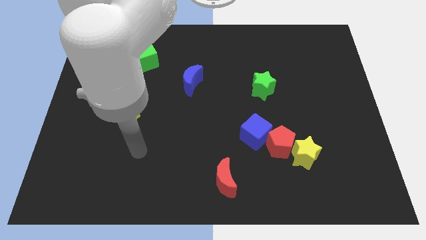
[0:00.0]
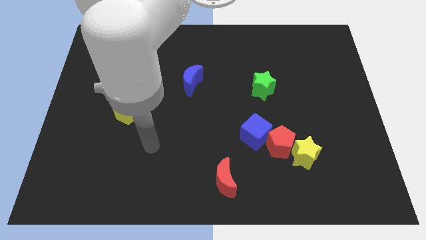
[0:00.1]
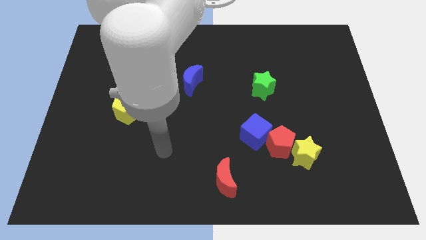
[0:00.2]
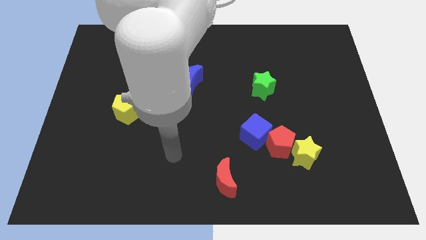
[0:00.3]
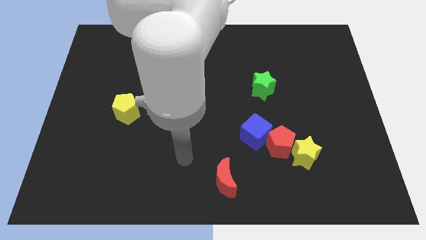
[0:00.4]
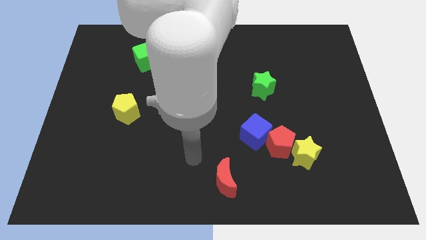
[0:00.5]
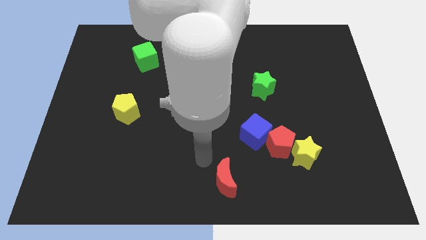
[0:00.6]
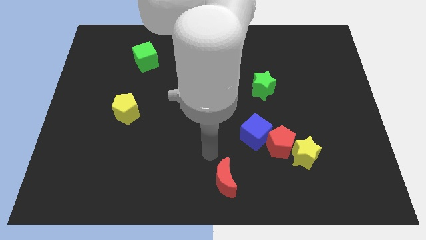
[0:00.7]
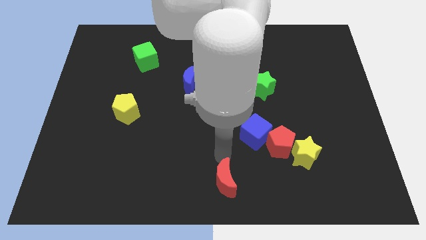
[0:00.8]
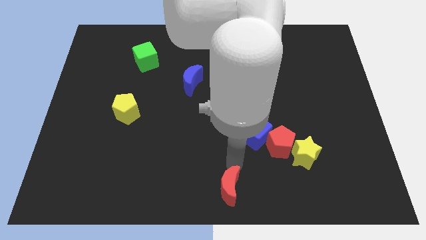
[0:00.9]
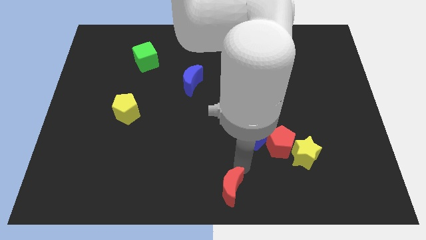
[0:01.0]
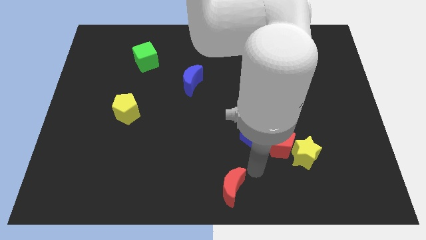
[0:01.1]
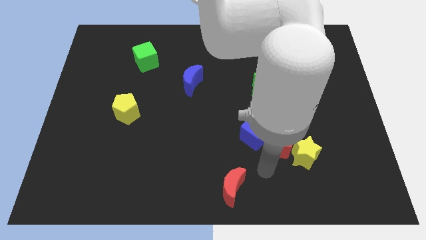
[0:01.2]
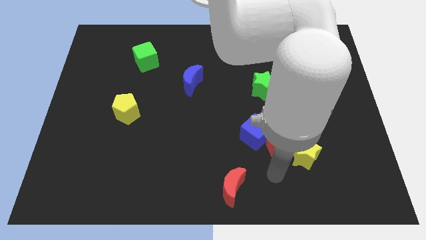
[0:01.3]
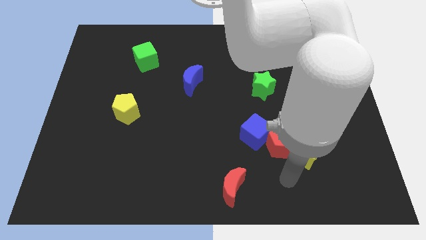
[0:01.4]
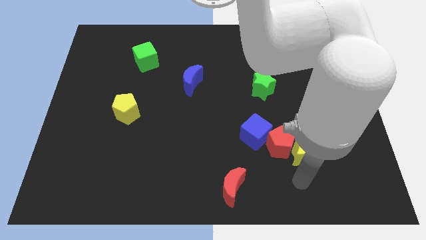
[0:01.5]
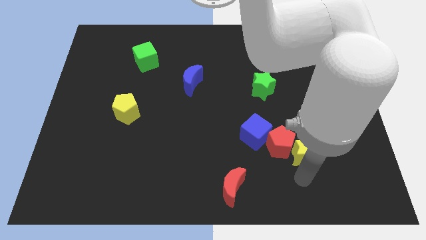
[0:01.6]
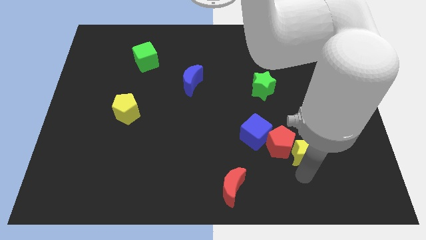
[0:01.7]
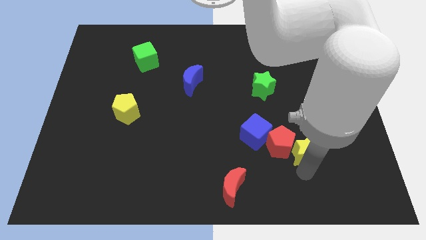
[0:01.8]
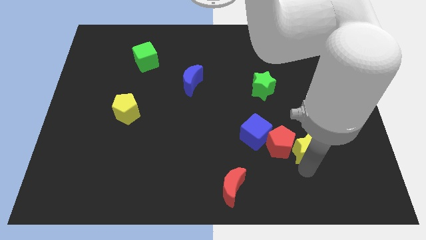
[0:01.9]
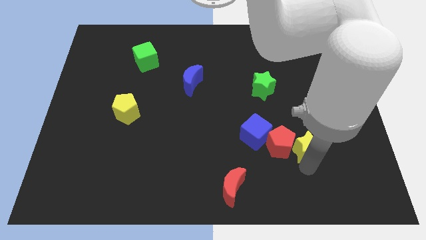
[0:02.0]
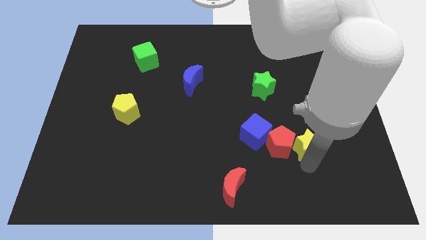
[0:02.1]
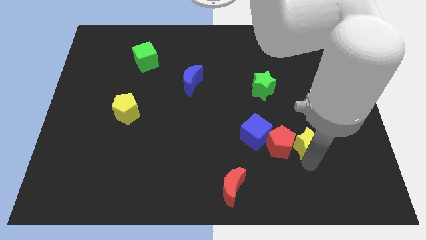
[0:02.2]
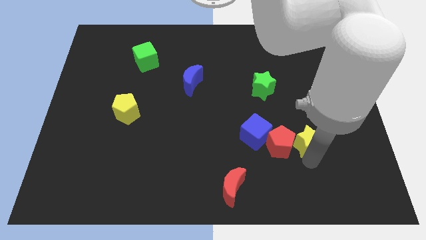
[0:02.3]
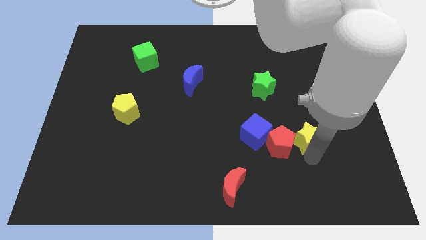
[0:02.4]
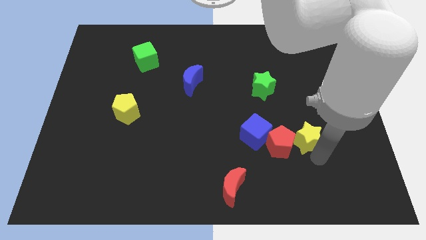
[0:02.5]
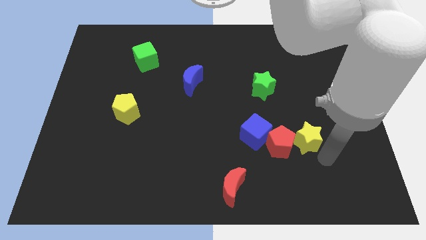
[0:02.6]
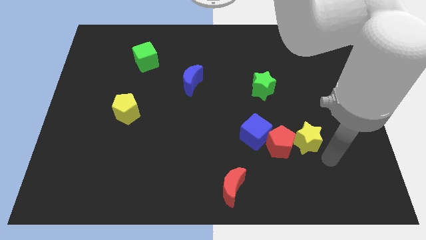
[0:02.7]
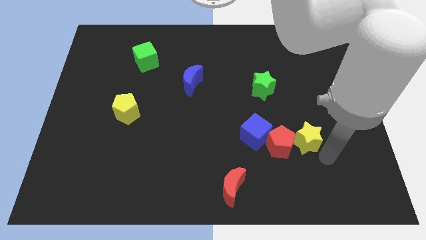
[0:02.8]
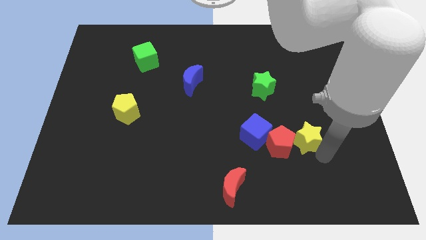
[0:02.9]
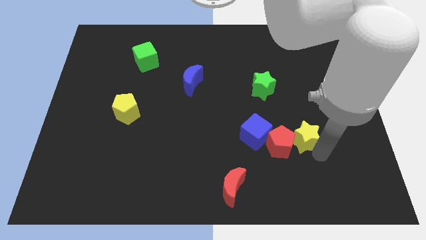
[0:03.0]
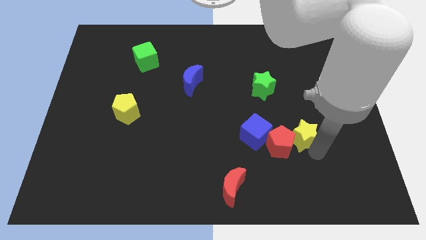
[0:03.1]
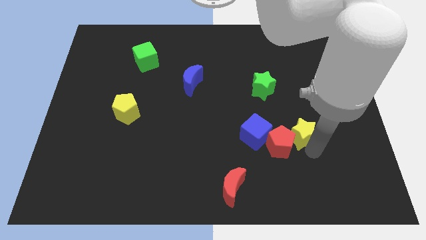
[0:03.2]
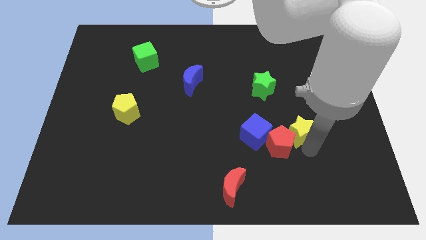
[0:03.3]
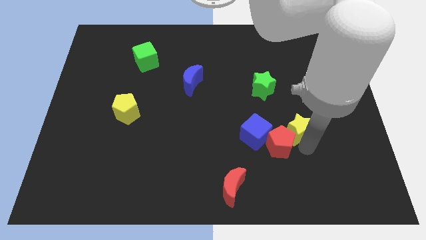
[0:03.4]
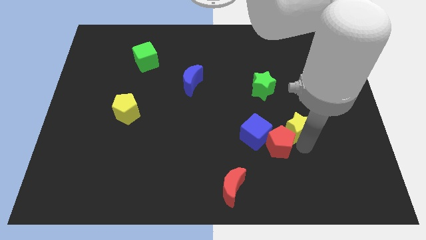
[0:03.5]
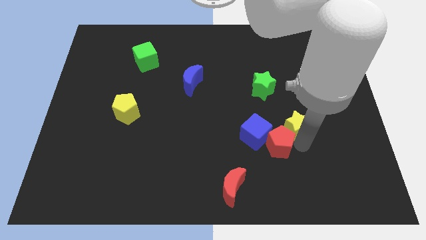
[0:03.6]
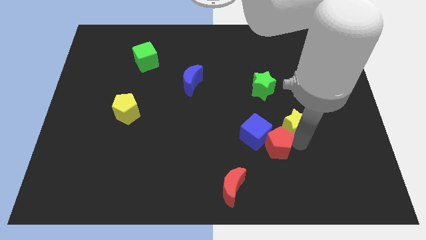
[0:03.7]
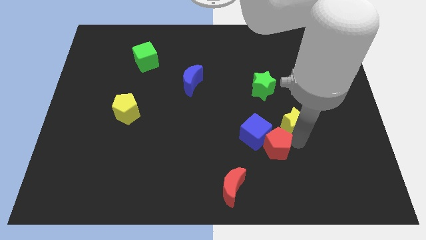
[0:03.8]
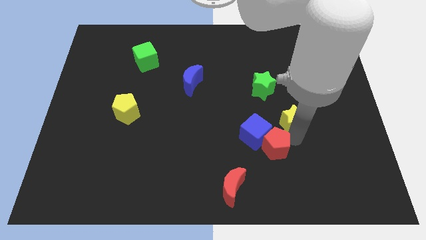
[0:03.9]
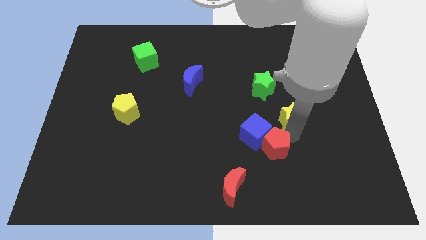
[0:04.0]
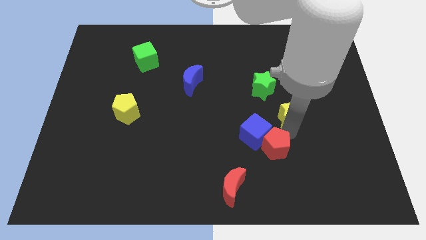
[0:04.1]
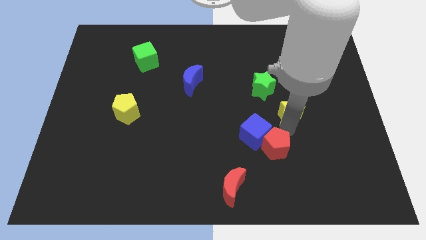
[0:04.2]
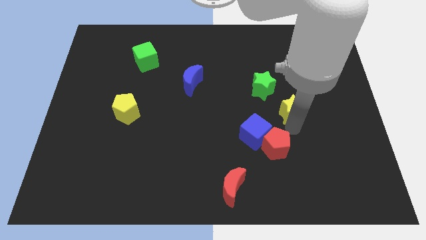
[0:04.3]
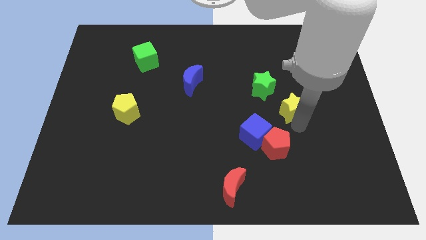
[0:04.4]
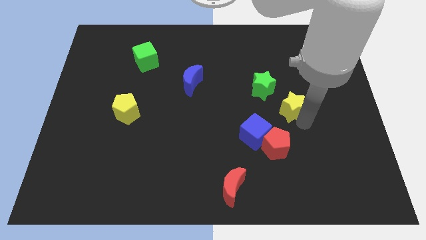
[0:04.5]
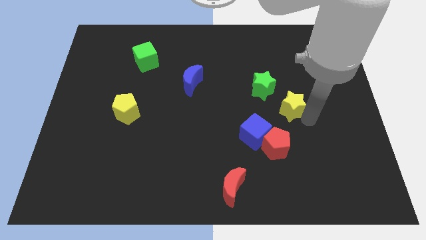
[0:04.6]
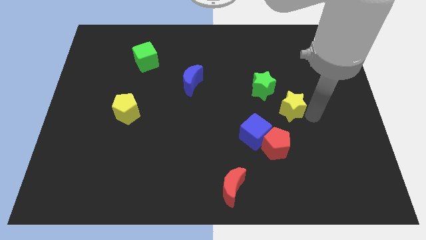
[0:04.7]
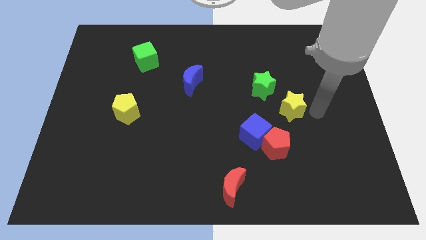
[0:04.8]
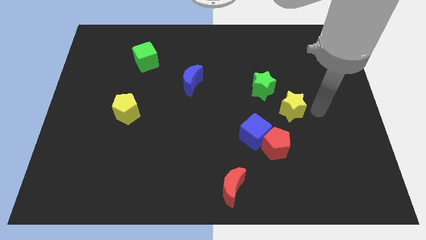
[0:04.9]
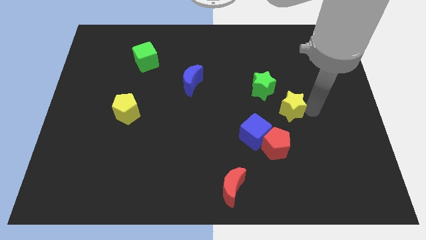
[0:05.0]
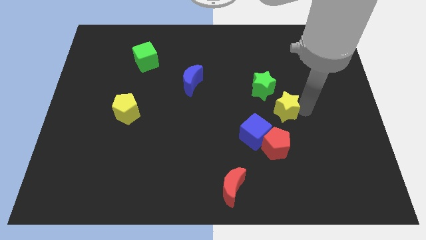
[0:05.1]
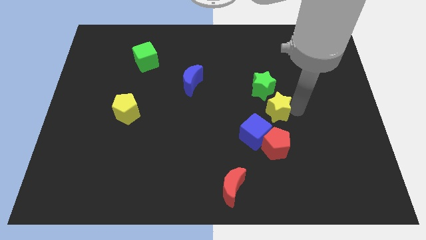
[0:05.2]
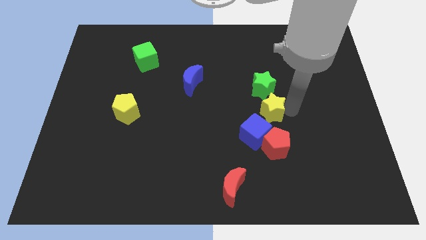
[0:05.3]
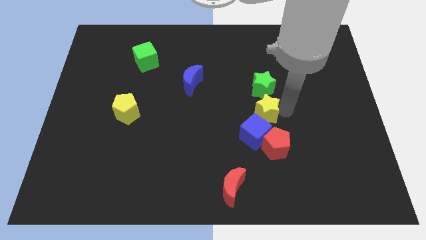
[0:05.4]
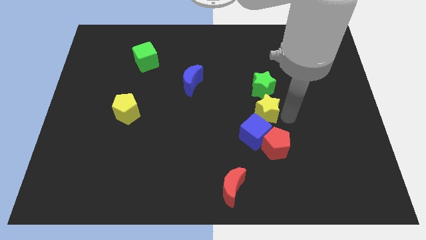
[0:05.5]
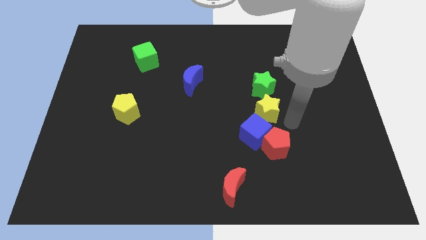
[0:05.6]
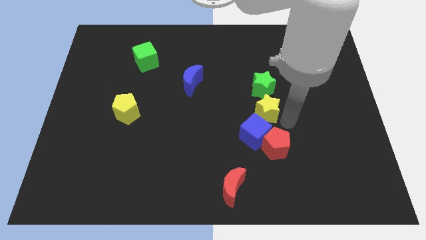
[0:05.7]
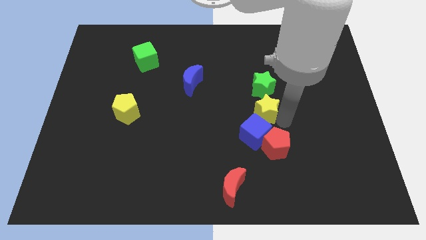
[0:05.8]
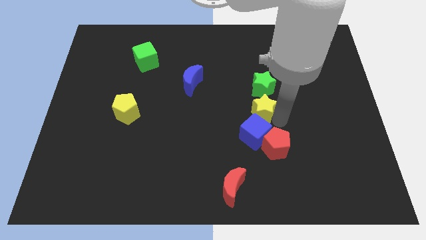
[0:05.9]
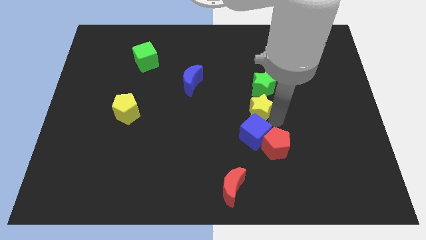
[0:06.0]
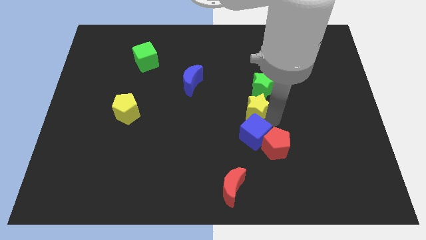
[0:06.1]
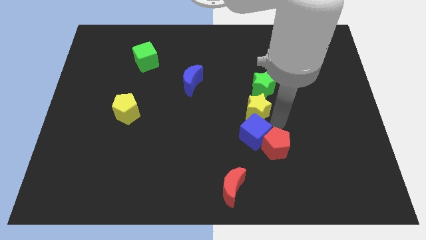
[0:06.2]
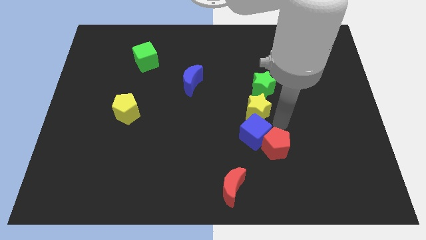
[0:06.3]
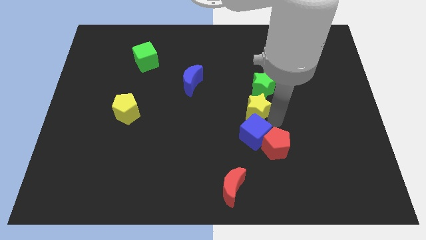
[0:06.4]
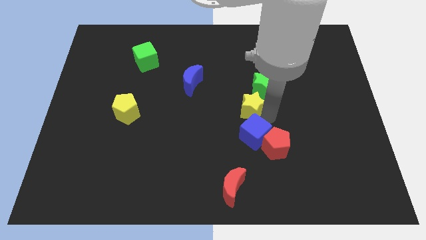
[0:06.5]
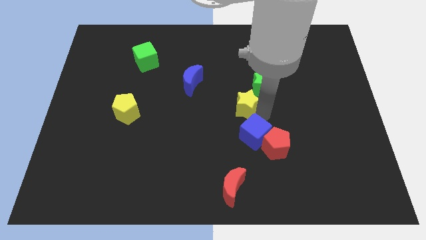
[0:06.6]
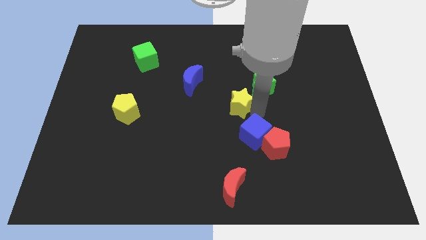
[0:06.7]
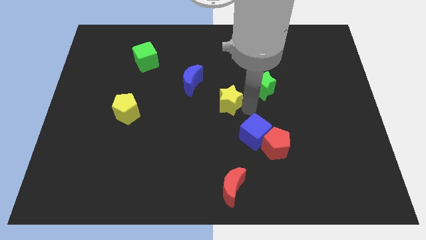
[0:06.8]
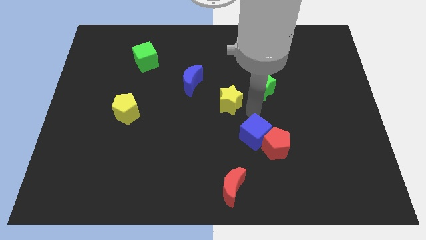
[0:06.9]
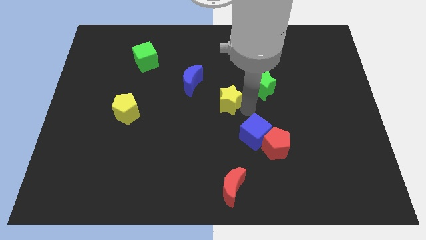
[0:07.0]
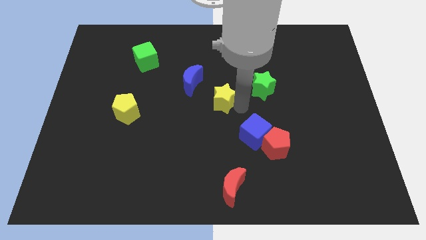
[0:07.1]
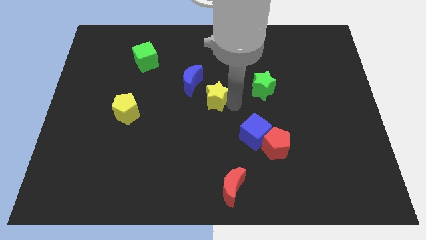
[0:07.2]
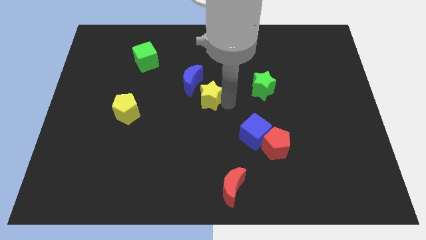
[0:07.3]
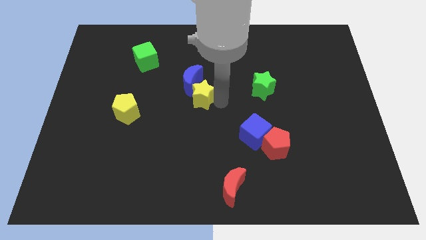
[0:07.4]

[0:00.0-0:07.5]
move the yellow star to the blue moon

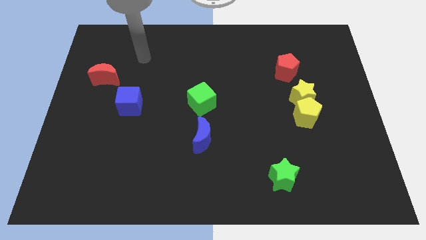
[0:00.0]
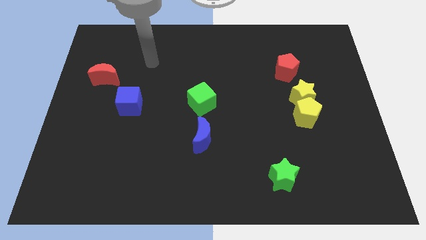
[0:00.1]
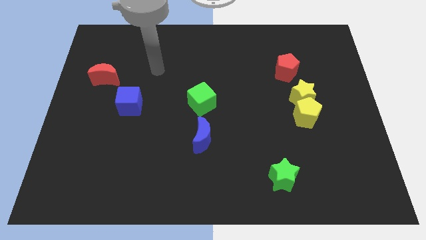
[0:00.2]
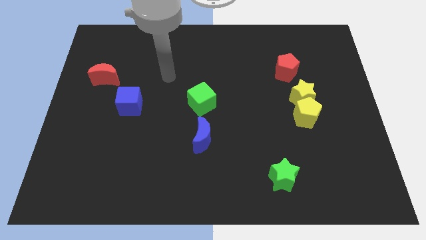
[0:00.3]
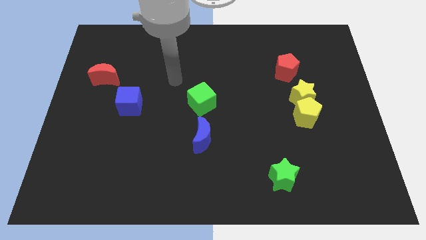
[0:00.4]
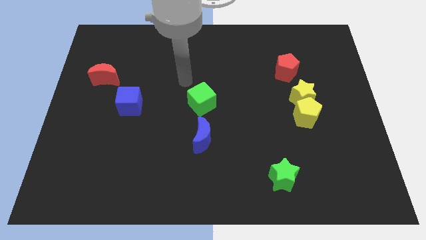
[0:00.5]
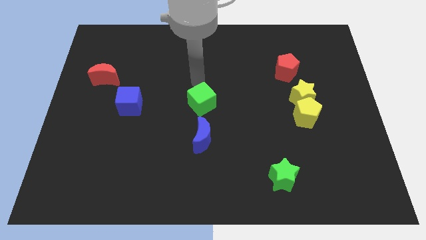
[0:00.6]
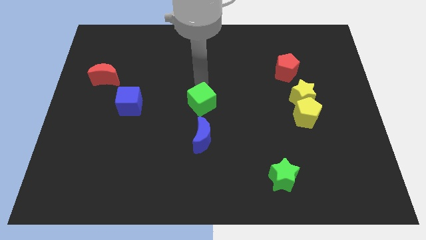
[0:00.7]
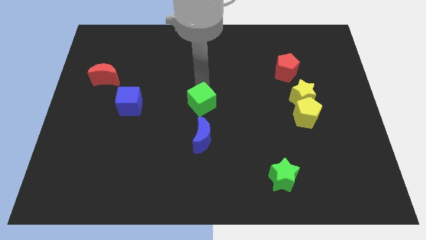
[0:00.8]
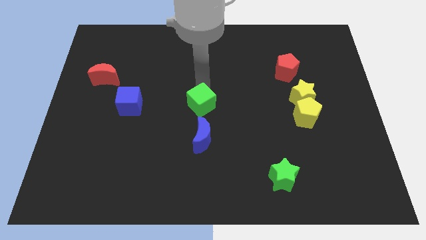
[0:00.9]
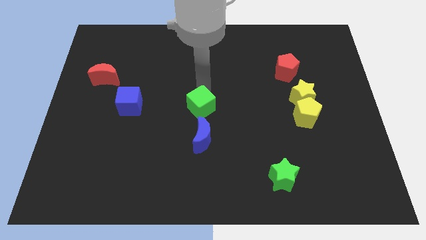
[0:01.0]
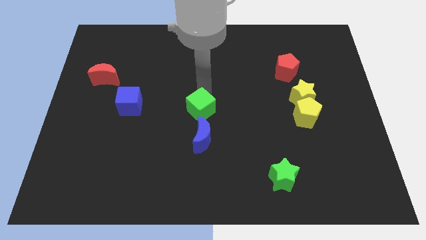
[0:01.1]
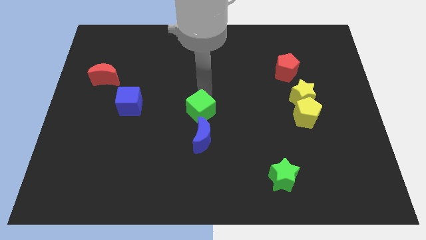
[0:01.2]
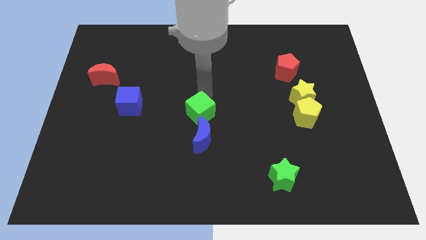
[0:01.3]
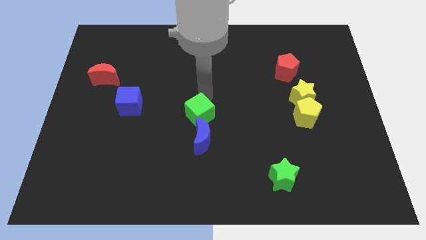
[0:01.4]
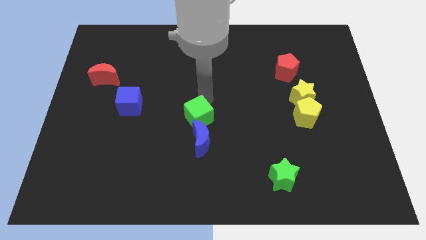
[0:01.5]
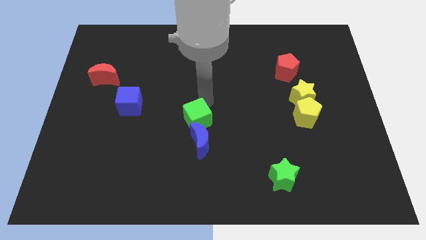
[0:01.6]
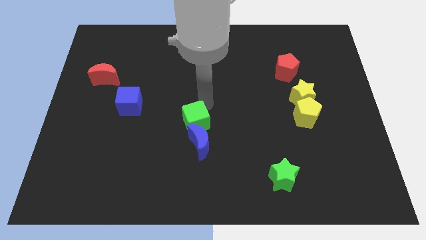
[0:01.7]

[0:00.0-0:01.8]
move the green cube close to the blue moon
